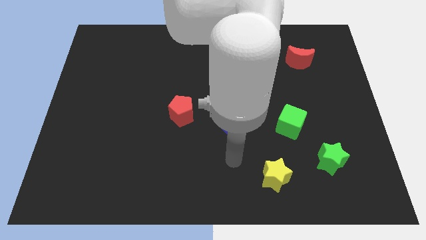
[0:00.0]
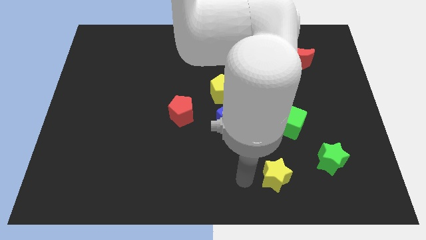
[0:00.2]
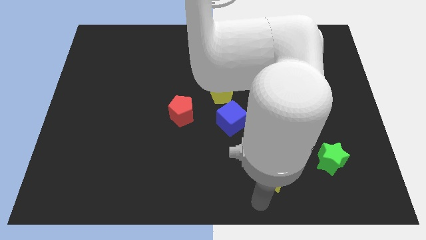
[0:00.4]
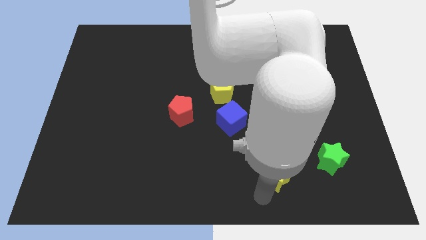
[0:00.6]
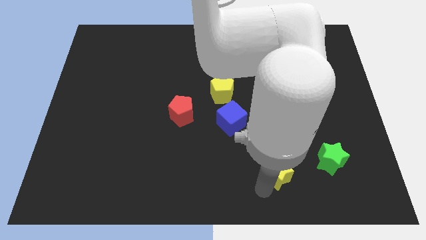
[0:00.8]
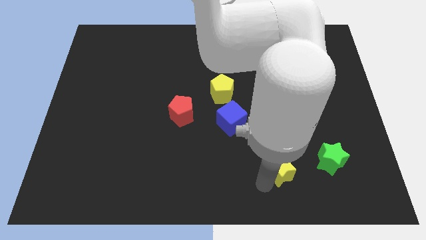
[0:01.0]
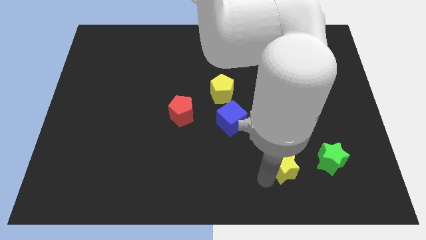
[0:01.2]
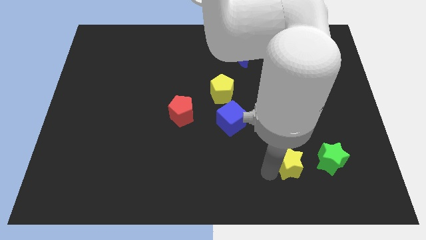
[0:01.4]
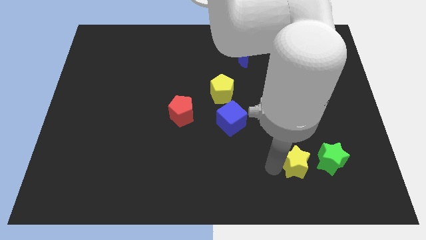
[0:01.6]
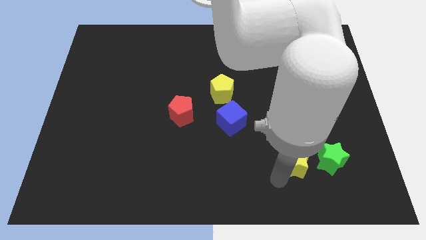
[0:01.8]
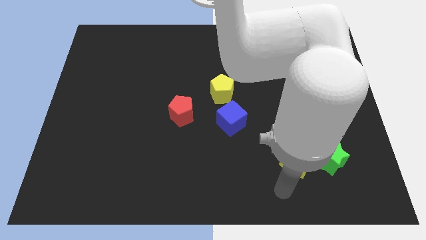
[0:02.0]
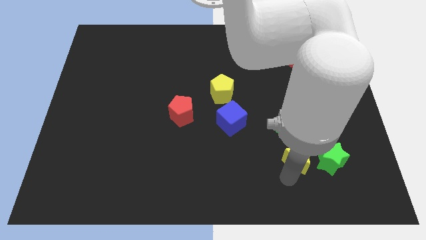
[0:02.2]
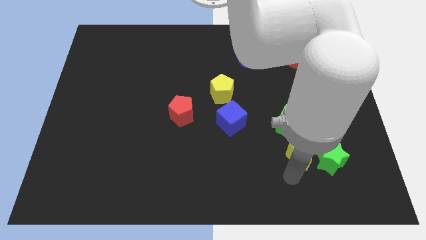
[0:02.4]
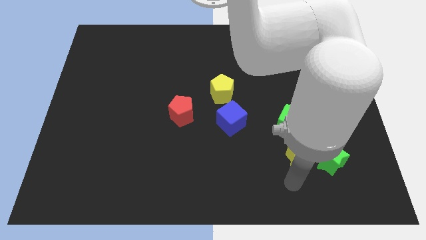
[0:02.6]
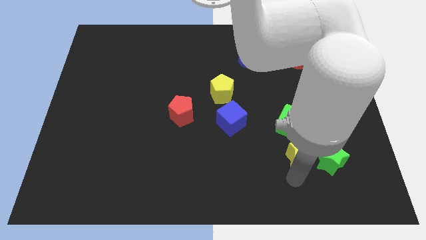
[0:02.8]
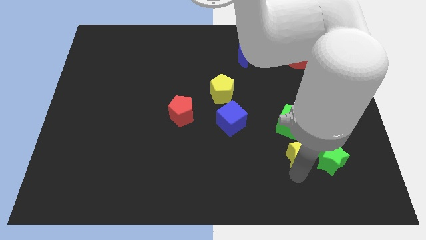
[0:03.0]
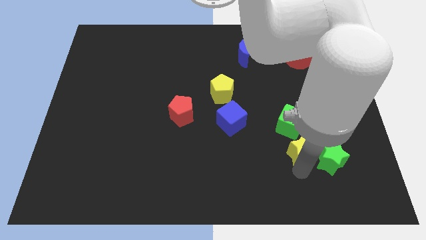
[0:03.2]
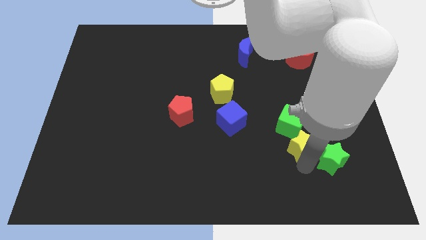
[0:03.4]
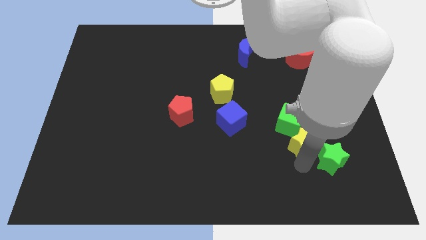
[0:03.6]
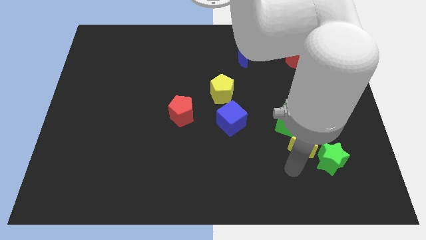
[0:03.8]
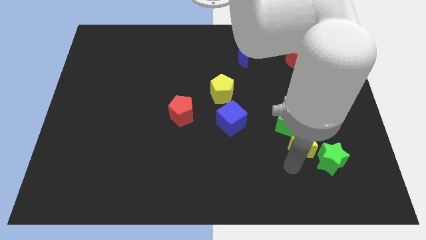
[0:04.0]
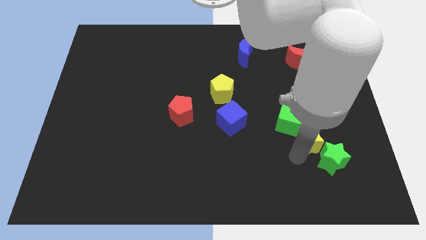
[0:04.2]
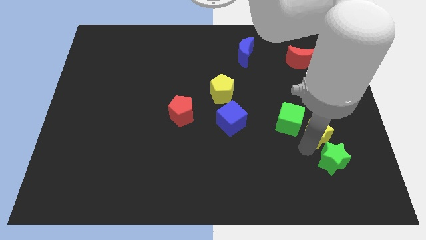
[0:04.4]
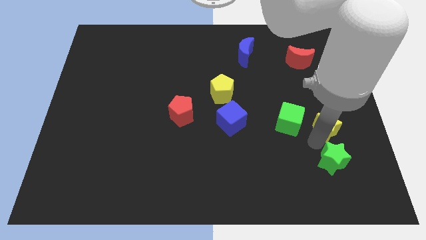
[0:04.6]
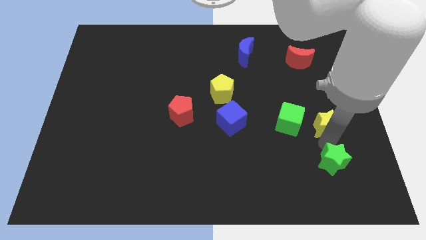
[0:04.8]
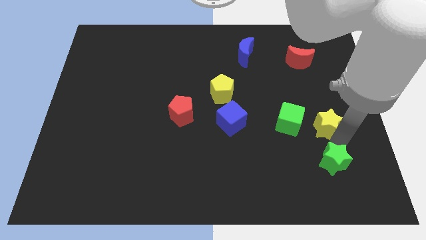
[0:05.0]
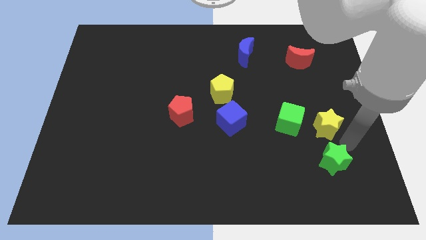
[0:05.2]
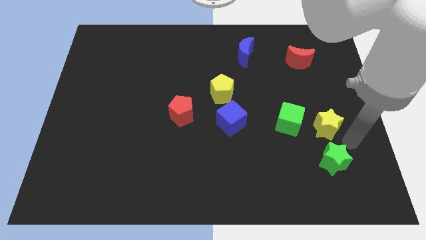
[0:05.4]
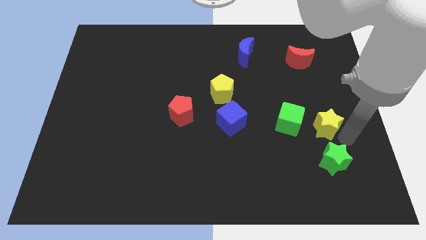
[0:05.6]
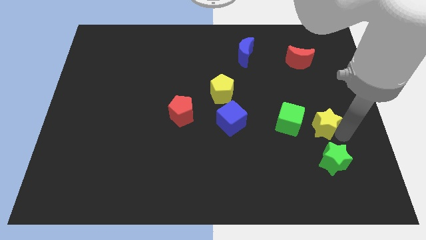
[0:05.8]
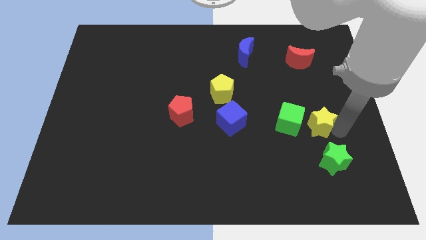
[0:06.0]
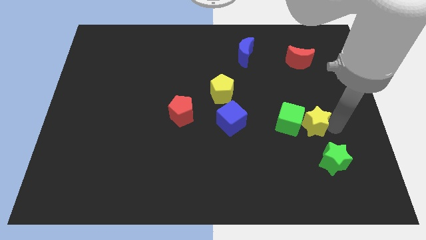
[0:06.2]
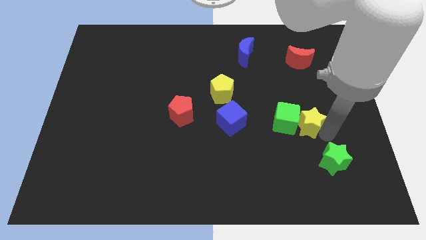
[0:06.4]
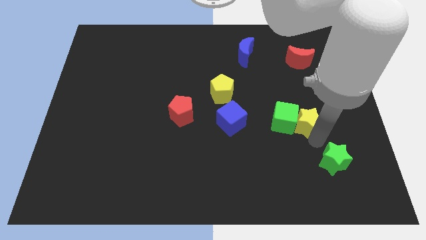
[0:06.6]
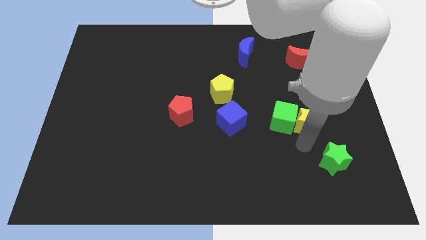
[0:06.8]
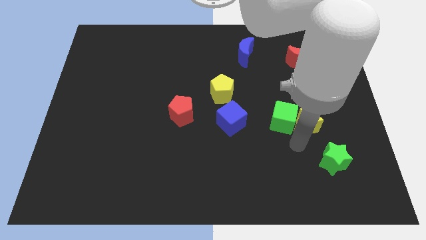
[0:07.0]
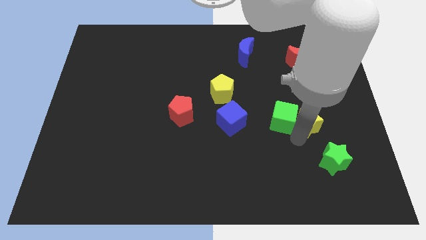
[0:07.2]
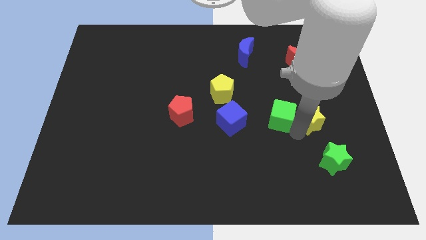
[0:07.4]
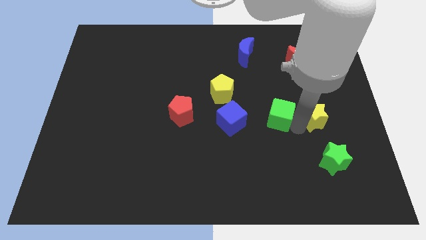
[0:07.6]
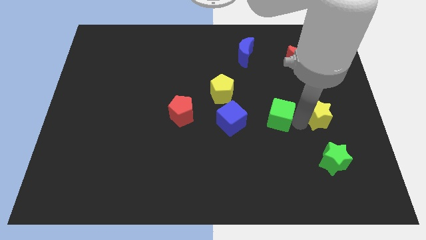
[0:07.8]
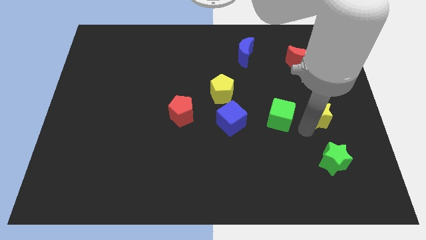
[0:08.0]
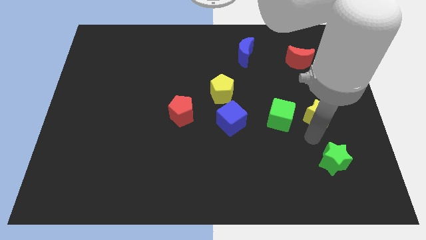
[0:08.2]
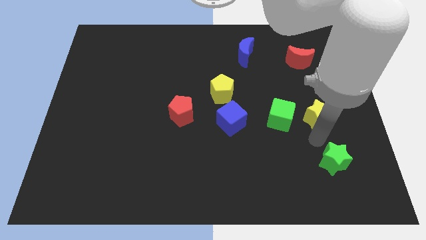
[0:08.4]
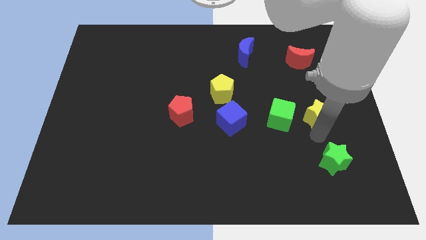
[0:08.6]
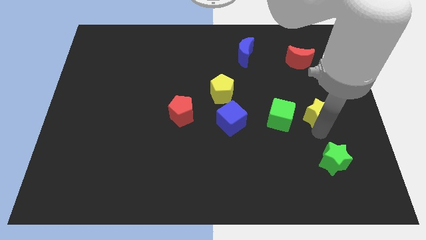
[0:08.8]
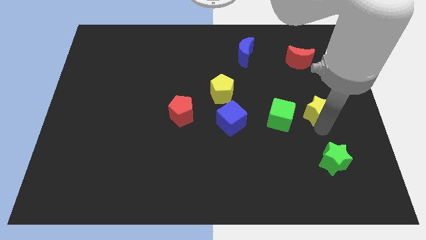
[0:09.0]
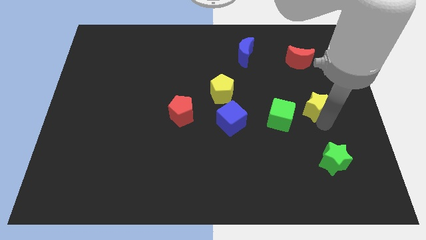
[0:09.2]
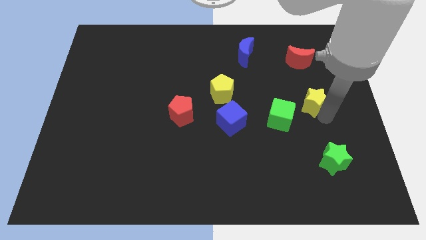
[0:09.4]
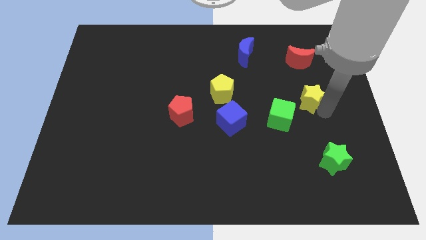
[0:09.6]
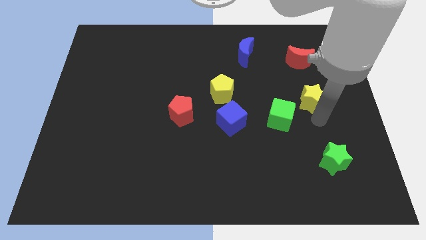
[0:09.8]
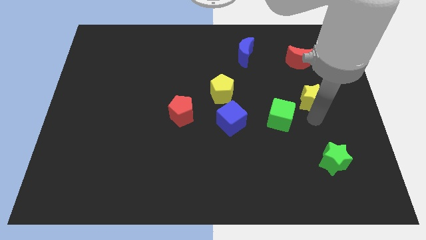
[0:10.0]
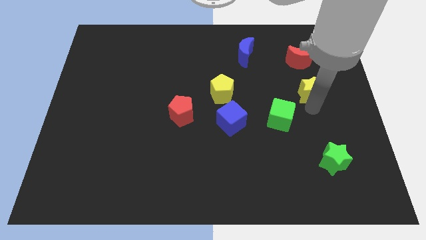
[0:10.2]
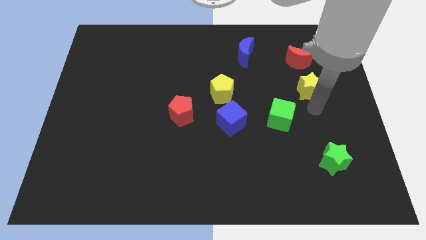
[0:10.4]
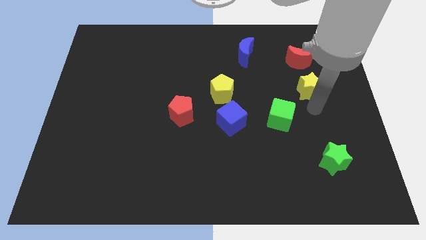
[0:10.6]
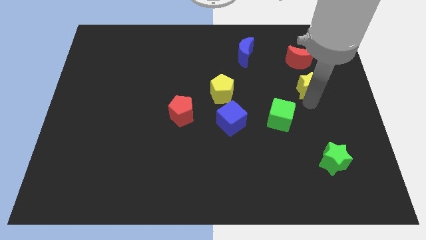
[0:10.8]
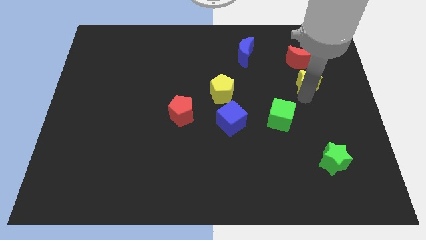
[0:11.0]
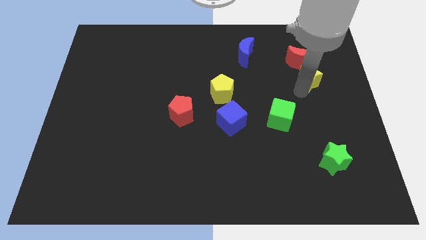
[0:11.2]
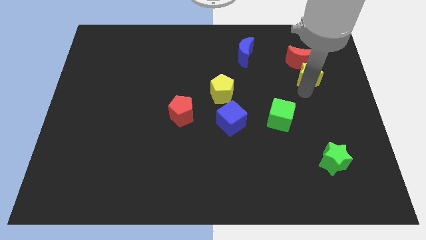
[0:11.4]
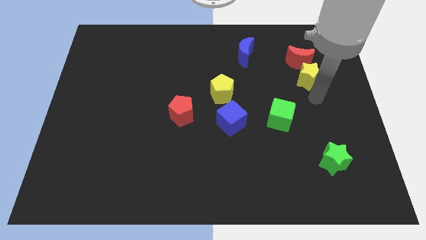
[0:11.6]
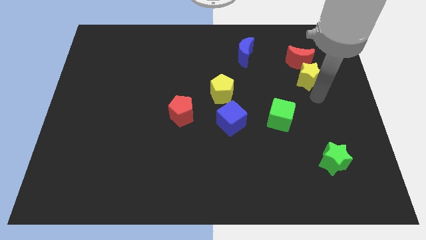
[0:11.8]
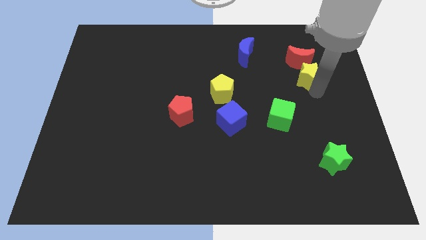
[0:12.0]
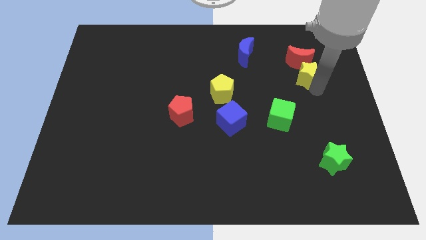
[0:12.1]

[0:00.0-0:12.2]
move the yellow star next to the red moon

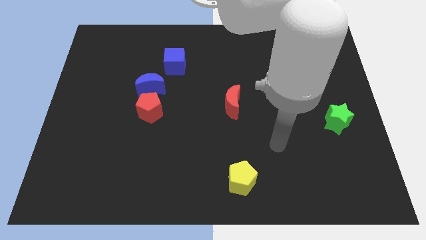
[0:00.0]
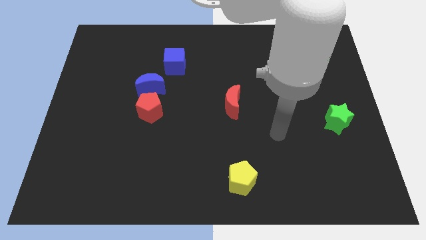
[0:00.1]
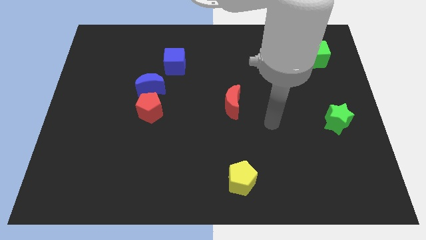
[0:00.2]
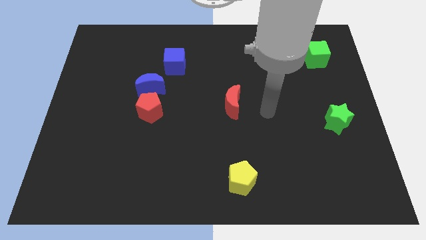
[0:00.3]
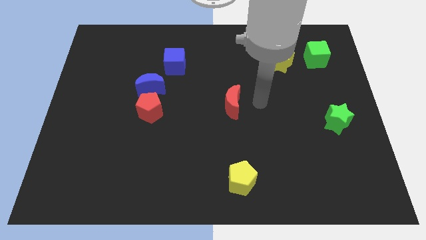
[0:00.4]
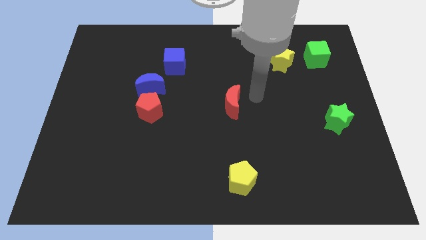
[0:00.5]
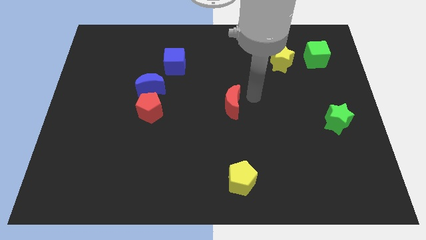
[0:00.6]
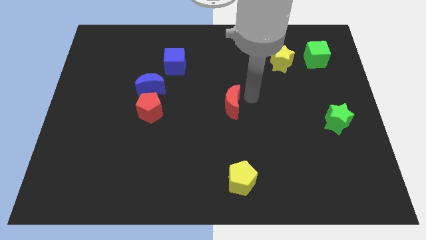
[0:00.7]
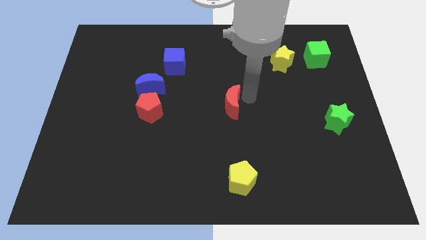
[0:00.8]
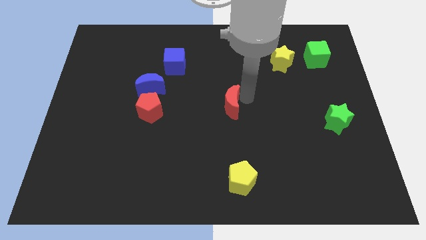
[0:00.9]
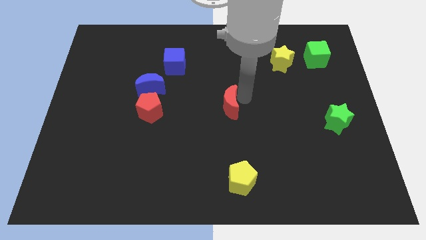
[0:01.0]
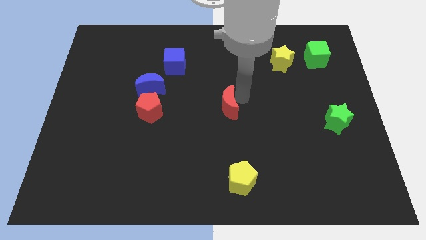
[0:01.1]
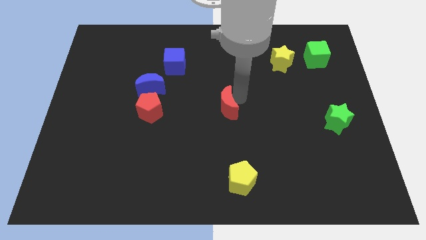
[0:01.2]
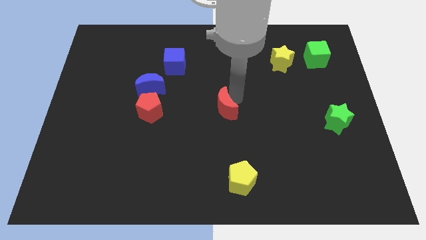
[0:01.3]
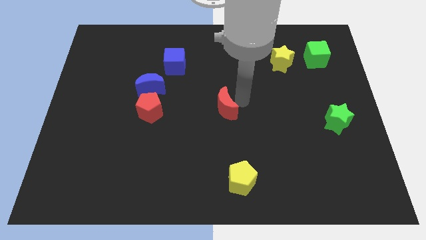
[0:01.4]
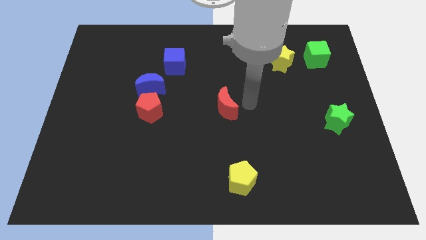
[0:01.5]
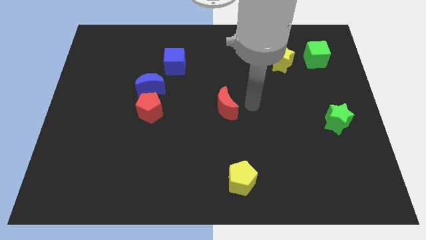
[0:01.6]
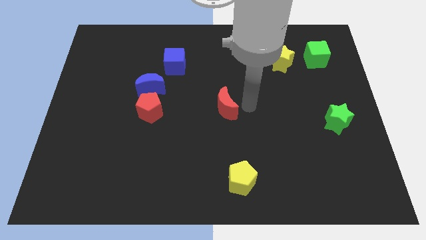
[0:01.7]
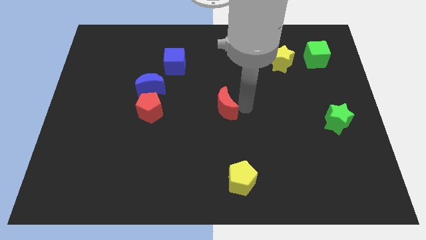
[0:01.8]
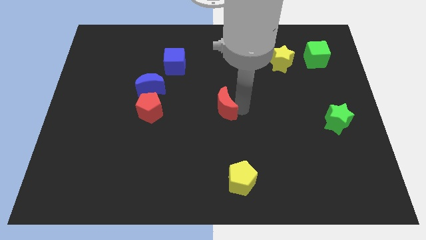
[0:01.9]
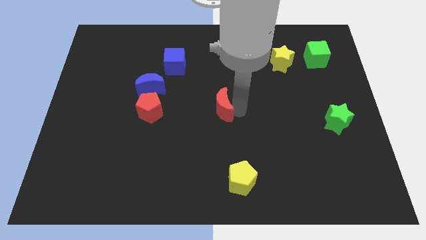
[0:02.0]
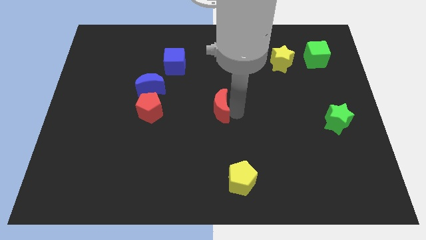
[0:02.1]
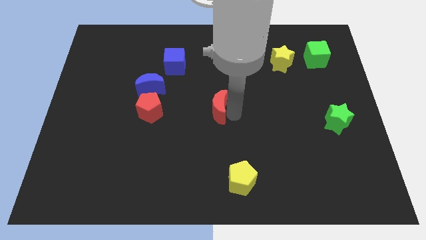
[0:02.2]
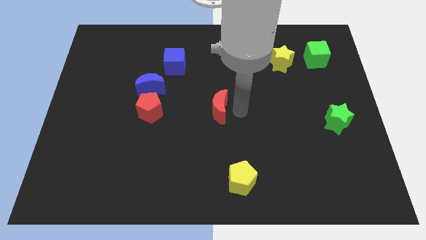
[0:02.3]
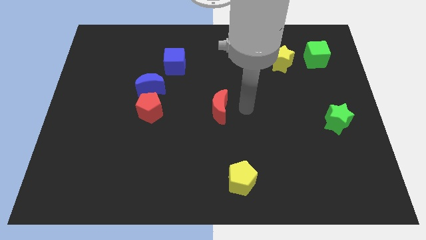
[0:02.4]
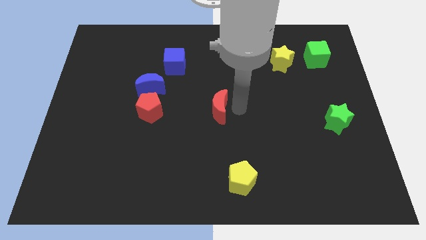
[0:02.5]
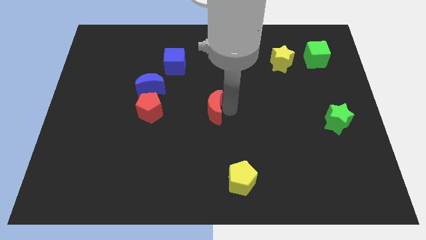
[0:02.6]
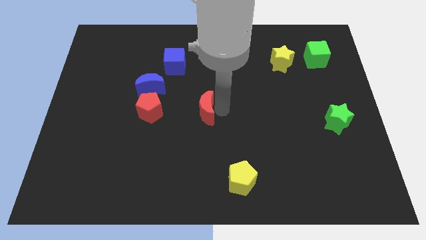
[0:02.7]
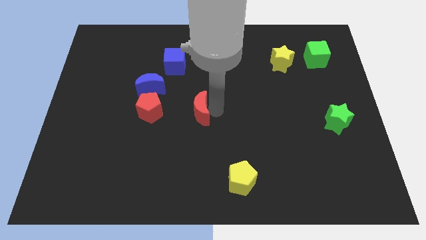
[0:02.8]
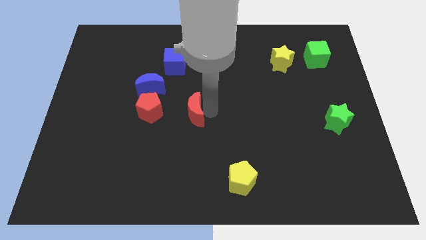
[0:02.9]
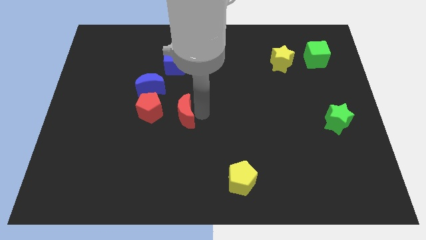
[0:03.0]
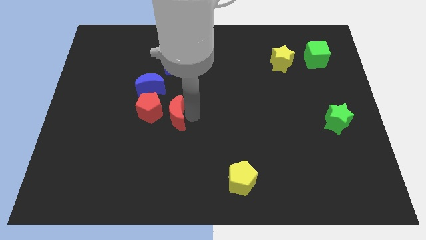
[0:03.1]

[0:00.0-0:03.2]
slide the red moon to the red pentagon
